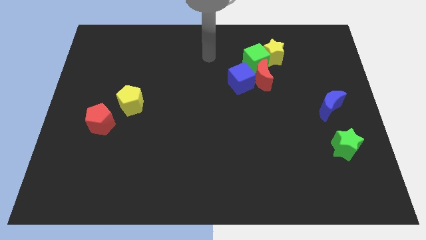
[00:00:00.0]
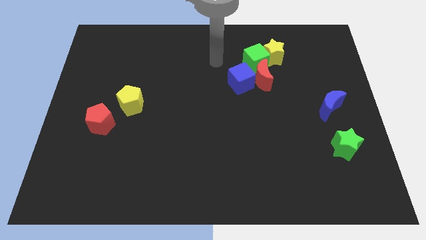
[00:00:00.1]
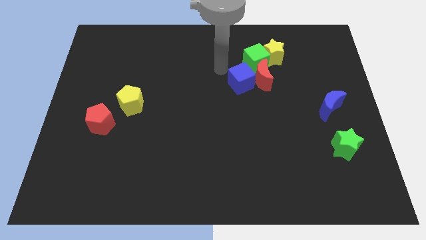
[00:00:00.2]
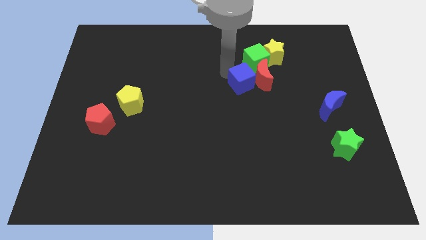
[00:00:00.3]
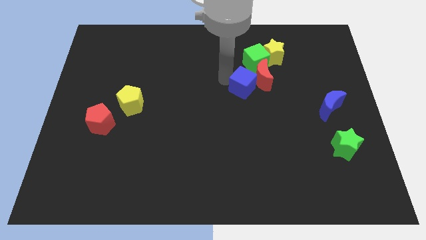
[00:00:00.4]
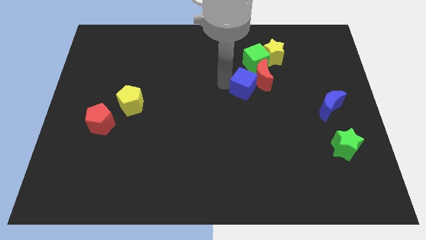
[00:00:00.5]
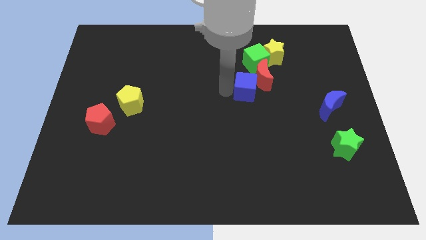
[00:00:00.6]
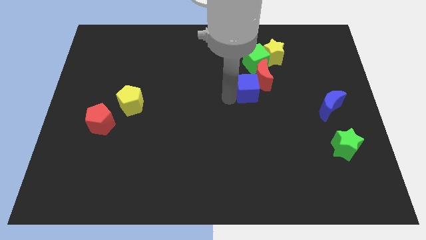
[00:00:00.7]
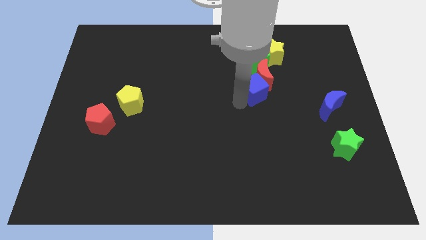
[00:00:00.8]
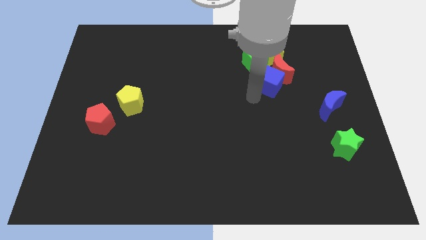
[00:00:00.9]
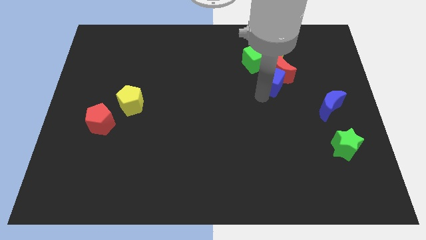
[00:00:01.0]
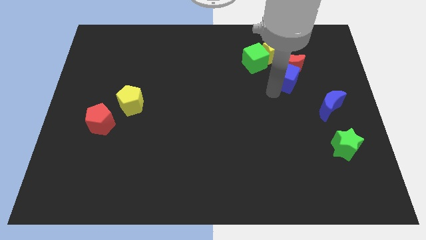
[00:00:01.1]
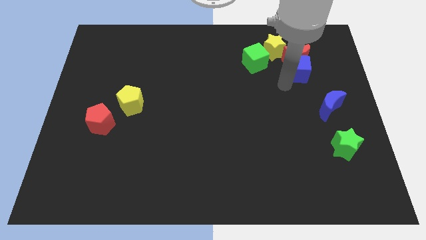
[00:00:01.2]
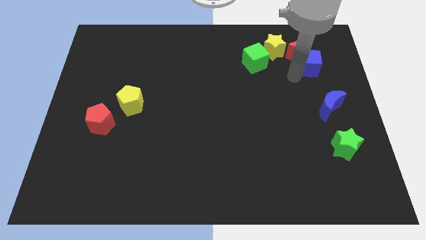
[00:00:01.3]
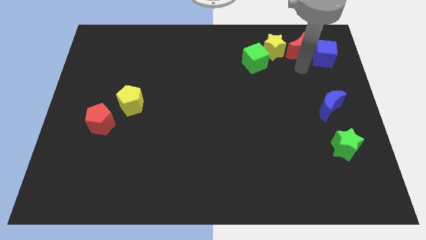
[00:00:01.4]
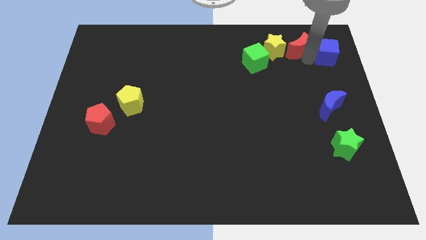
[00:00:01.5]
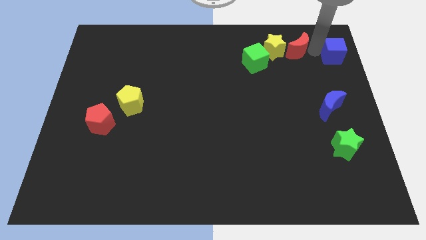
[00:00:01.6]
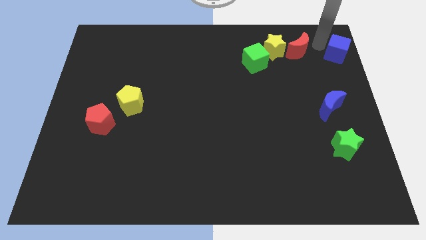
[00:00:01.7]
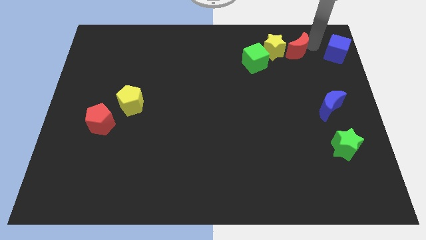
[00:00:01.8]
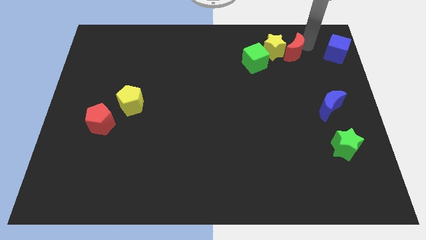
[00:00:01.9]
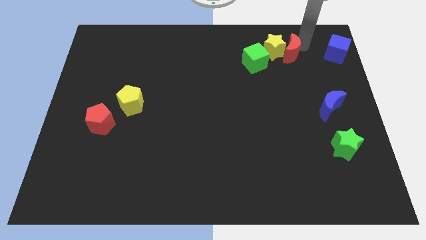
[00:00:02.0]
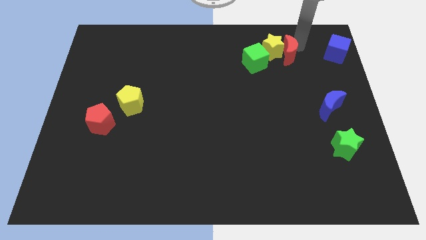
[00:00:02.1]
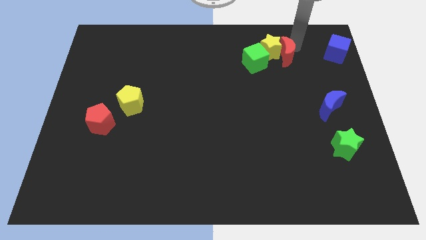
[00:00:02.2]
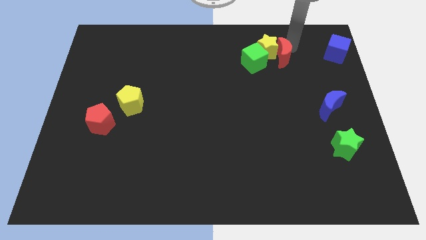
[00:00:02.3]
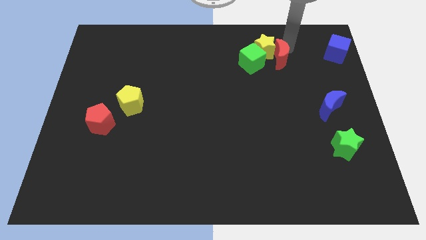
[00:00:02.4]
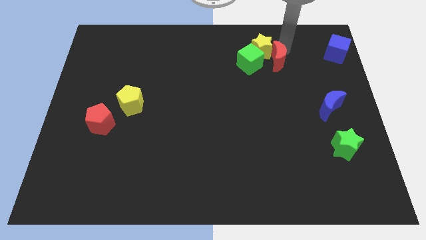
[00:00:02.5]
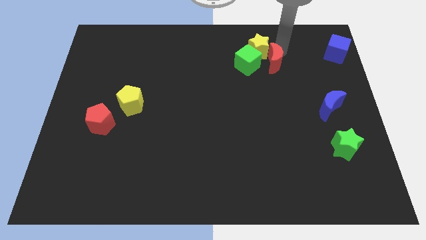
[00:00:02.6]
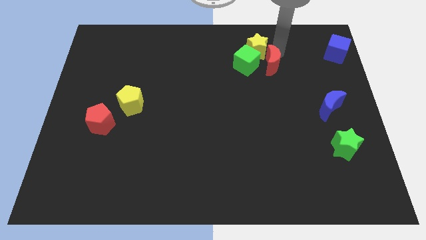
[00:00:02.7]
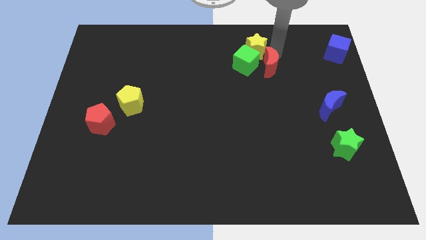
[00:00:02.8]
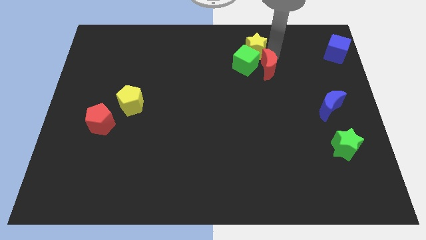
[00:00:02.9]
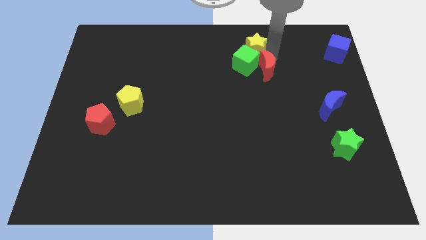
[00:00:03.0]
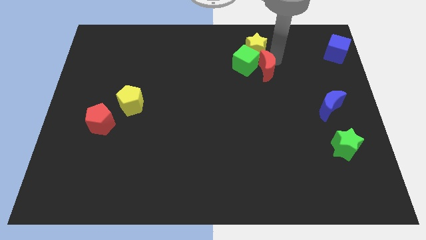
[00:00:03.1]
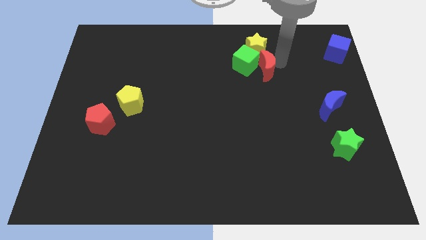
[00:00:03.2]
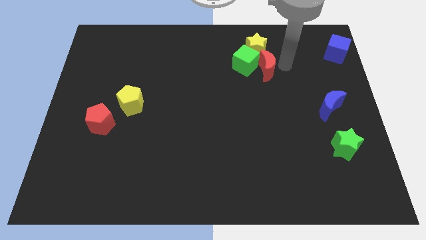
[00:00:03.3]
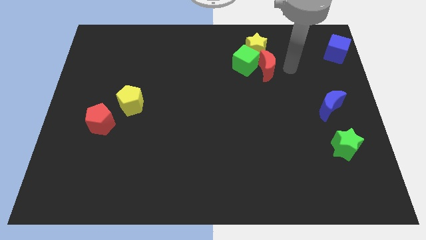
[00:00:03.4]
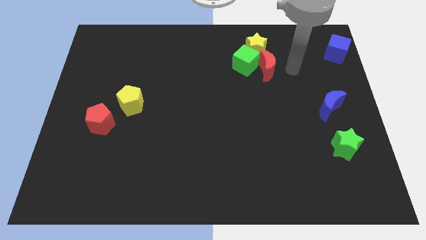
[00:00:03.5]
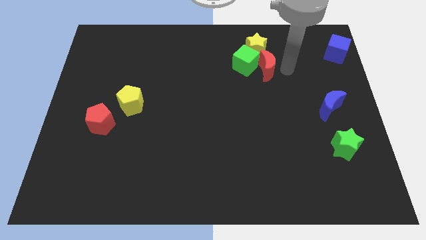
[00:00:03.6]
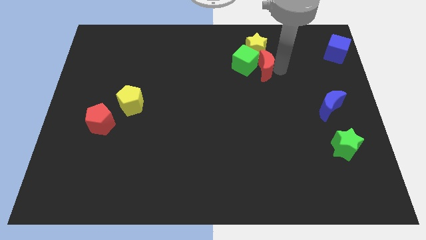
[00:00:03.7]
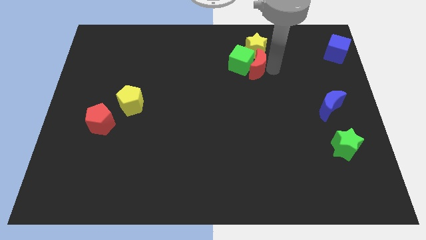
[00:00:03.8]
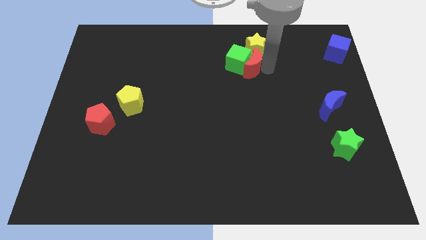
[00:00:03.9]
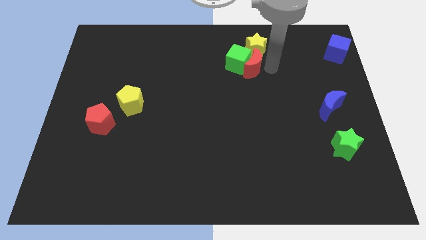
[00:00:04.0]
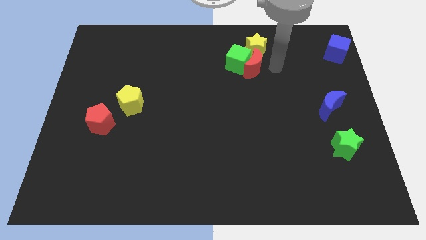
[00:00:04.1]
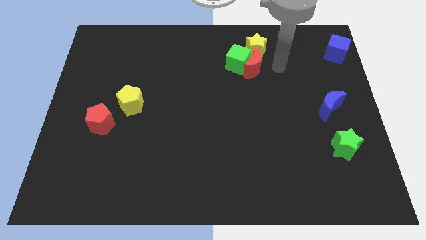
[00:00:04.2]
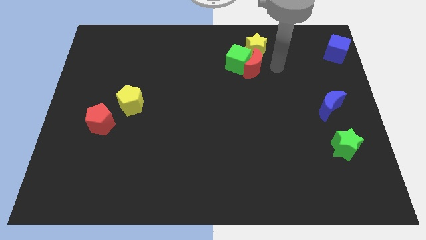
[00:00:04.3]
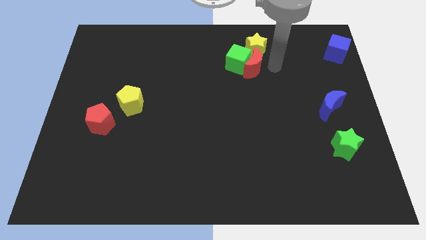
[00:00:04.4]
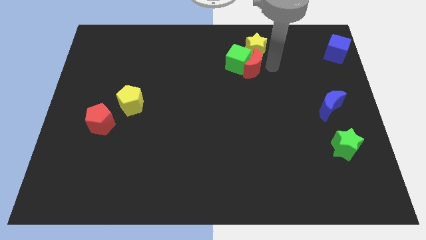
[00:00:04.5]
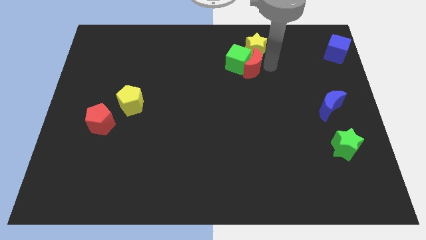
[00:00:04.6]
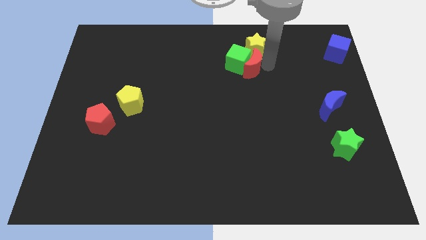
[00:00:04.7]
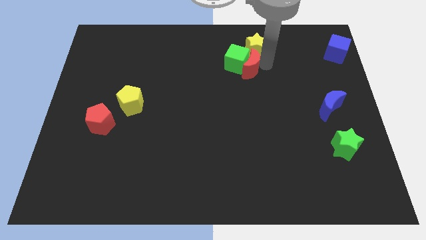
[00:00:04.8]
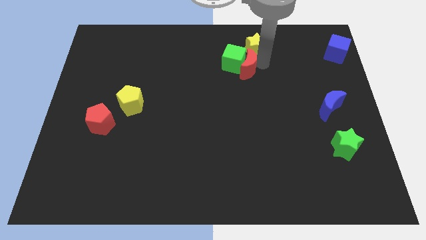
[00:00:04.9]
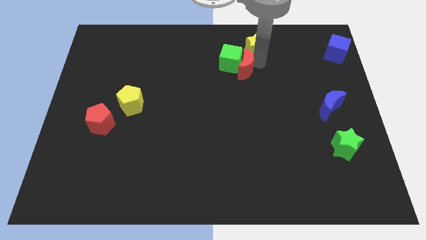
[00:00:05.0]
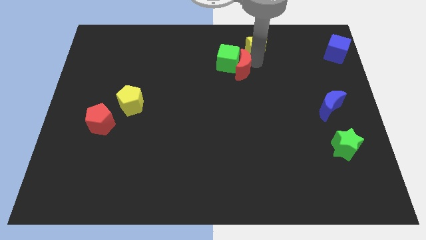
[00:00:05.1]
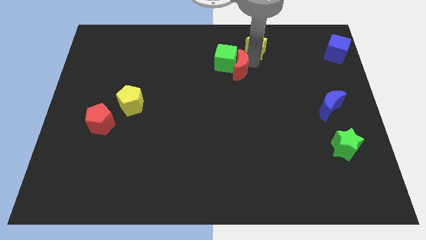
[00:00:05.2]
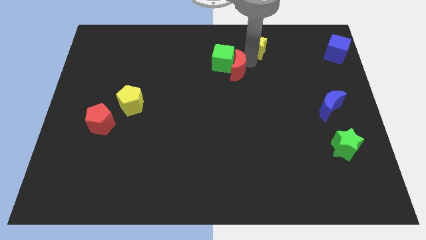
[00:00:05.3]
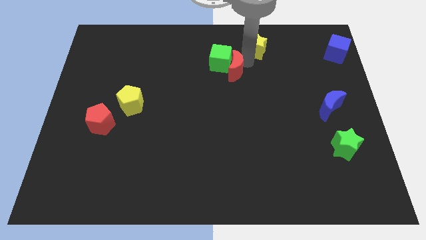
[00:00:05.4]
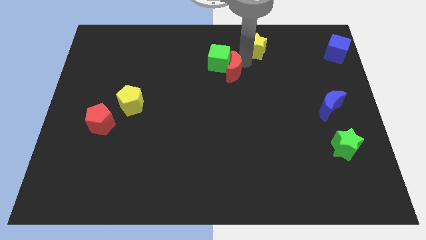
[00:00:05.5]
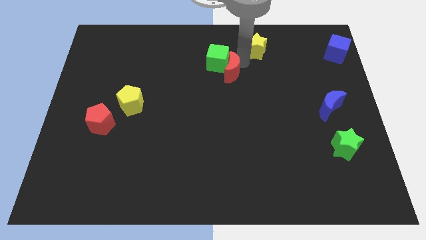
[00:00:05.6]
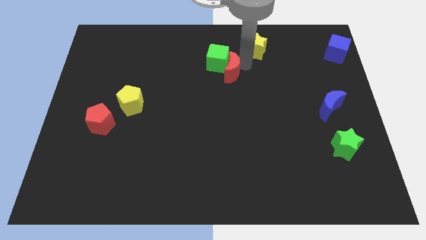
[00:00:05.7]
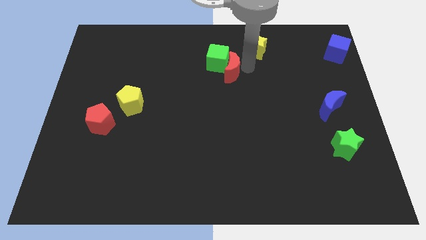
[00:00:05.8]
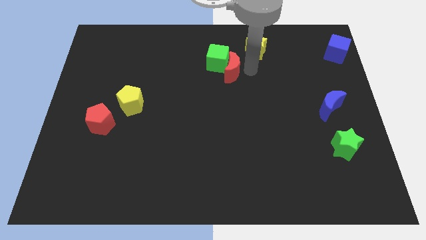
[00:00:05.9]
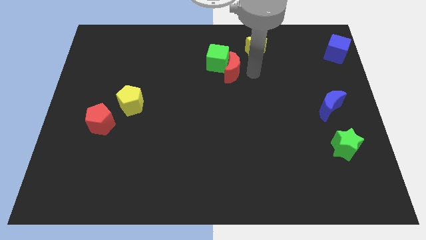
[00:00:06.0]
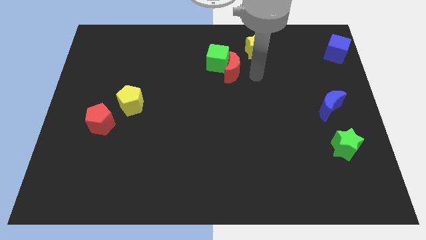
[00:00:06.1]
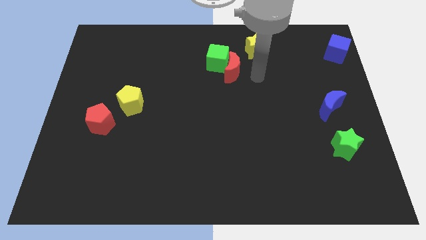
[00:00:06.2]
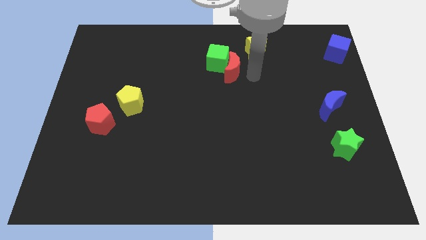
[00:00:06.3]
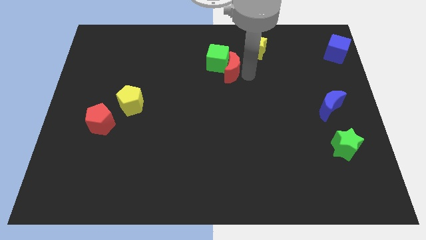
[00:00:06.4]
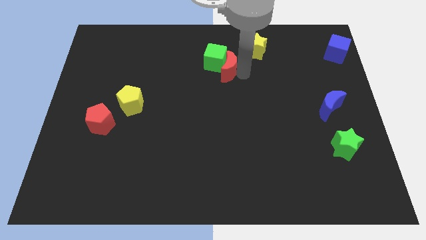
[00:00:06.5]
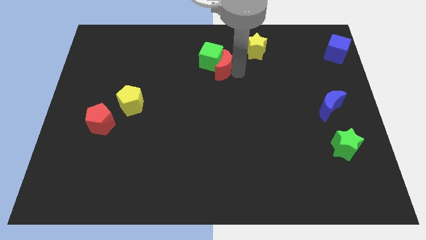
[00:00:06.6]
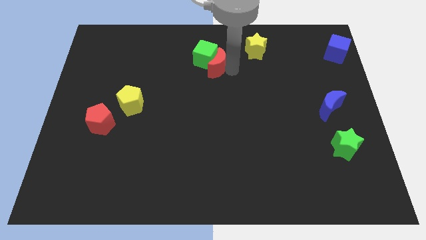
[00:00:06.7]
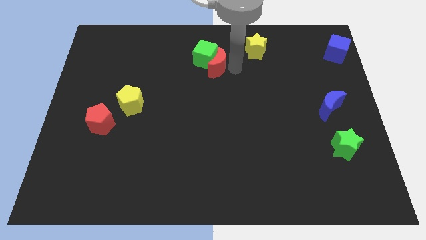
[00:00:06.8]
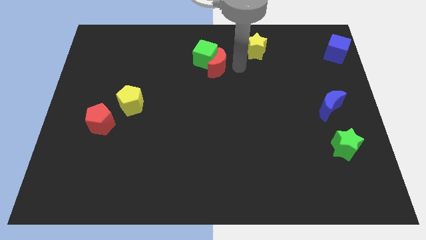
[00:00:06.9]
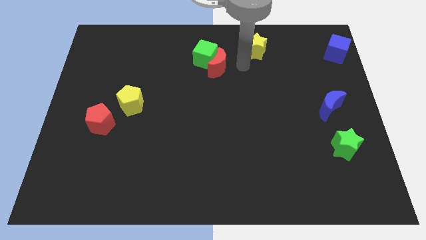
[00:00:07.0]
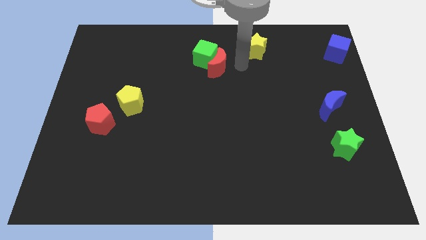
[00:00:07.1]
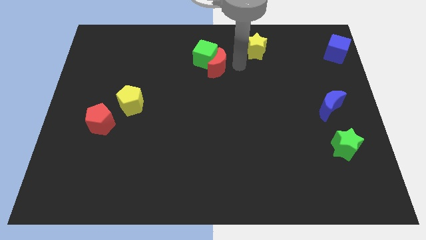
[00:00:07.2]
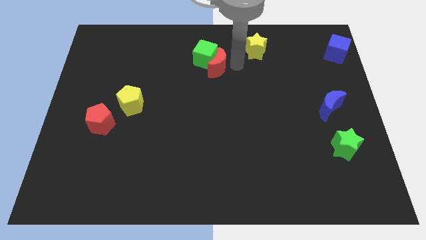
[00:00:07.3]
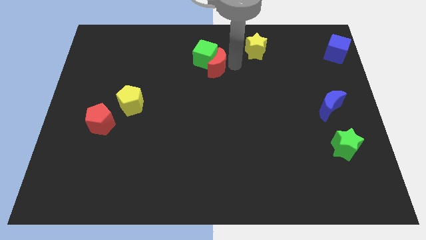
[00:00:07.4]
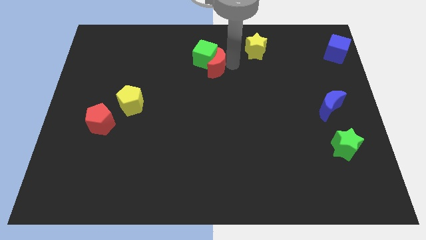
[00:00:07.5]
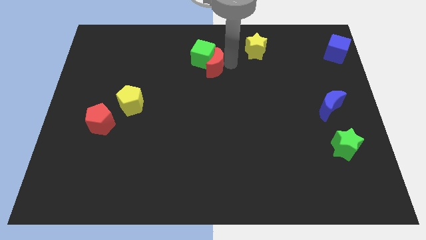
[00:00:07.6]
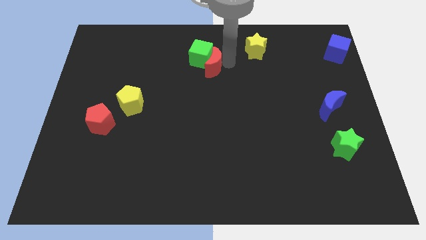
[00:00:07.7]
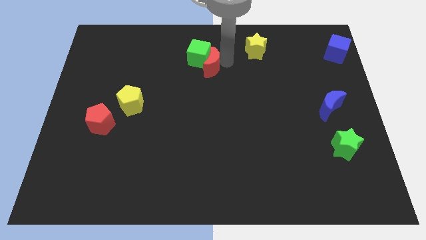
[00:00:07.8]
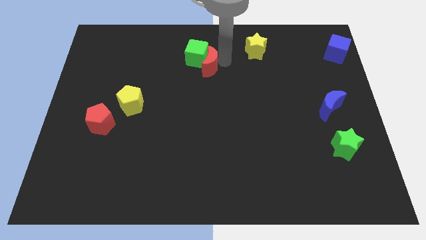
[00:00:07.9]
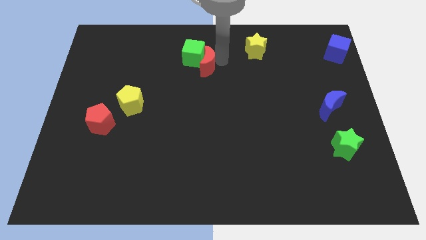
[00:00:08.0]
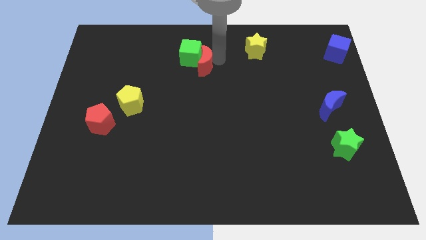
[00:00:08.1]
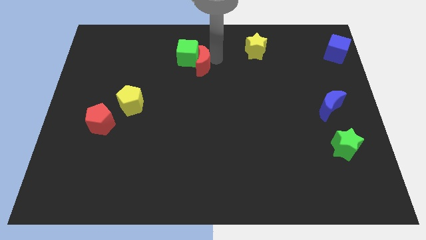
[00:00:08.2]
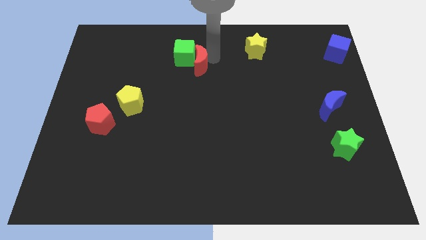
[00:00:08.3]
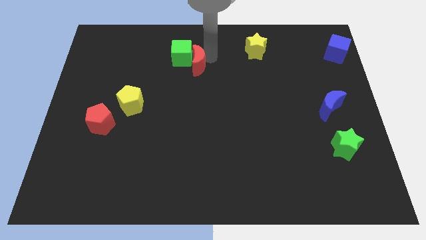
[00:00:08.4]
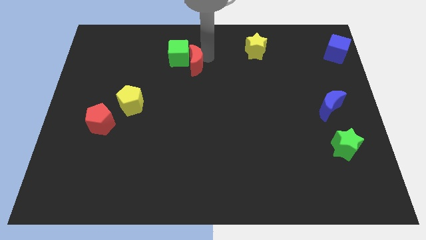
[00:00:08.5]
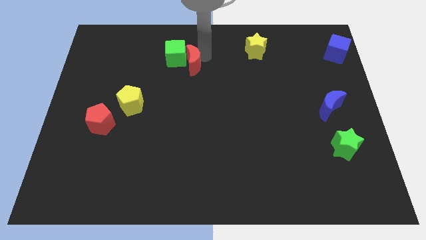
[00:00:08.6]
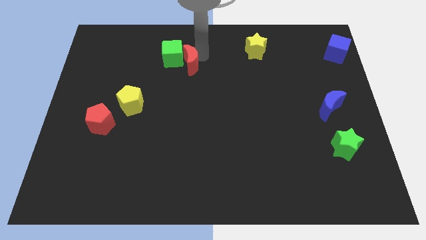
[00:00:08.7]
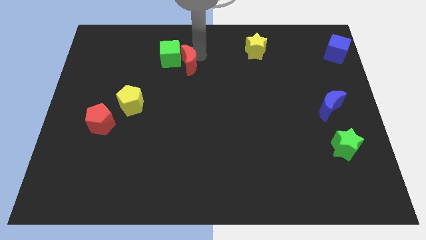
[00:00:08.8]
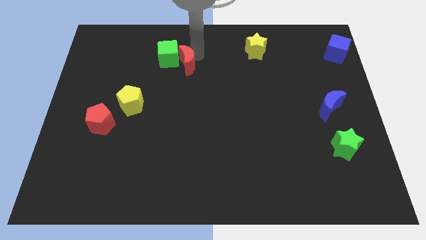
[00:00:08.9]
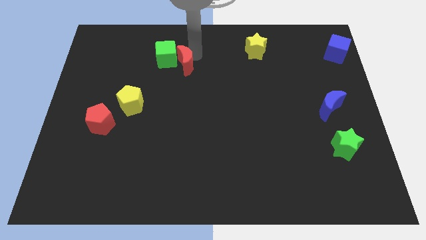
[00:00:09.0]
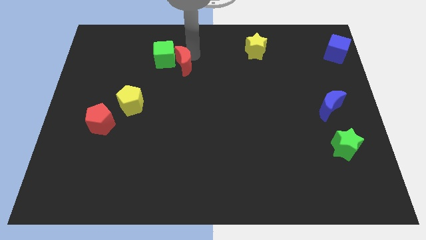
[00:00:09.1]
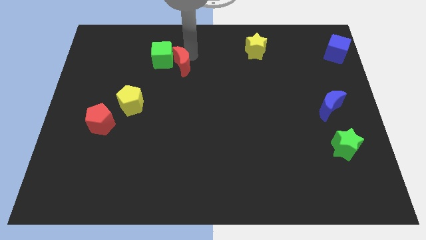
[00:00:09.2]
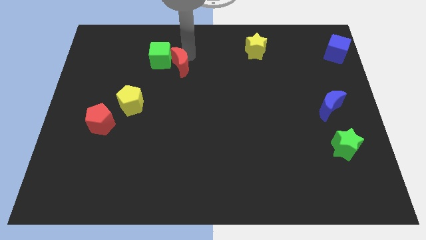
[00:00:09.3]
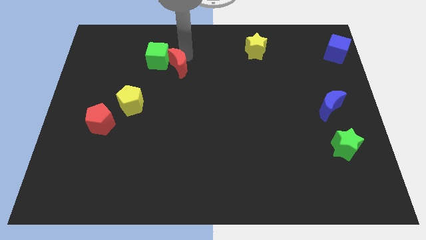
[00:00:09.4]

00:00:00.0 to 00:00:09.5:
move the red moon left
